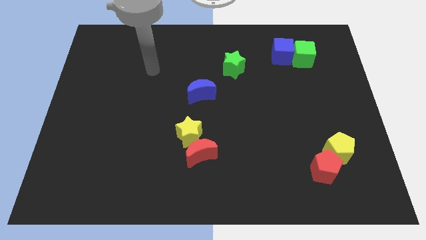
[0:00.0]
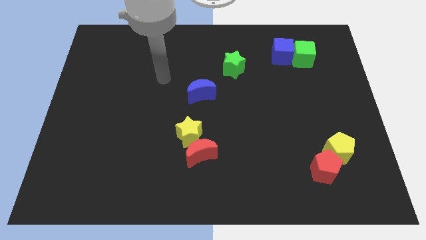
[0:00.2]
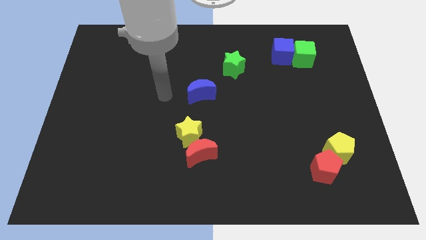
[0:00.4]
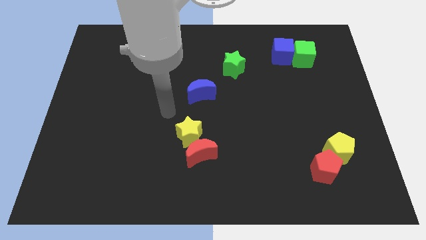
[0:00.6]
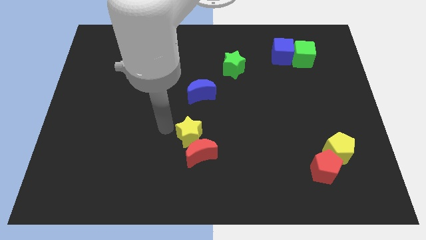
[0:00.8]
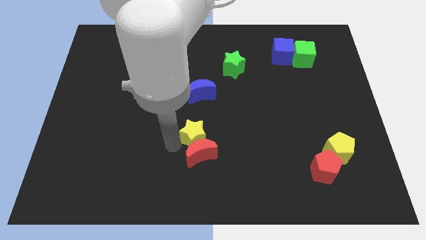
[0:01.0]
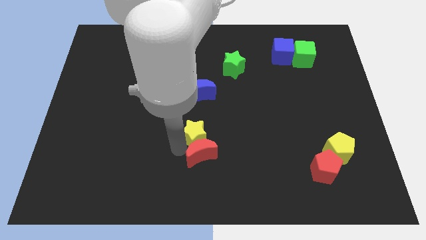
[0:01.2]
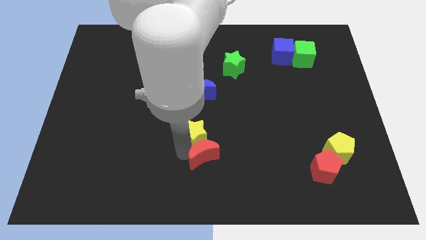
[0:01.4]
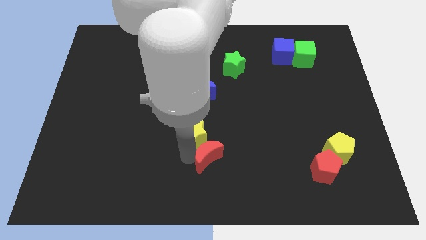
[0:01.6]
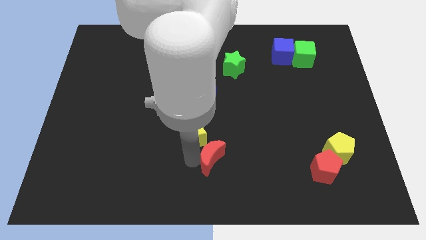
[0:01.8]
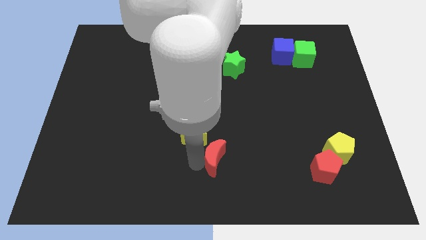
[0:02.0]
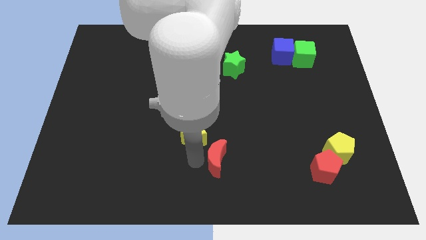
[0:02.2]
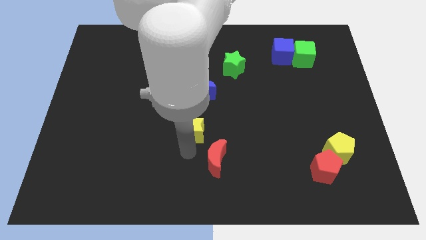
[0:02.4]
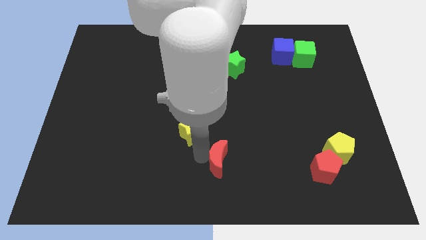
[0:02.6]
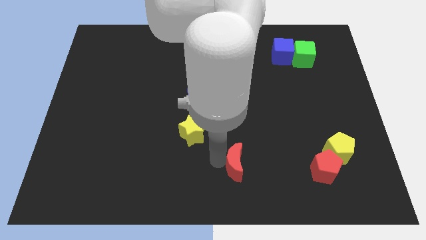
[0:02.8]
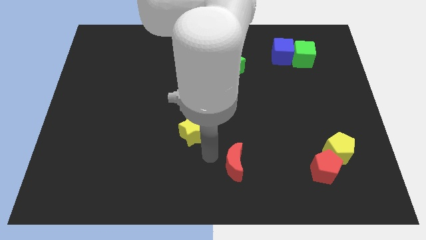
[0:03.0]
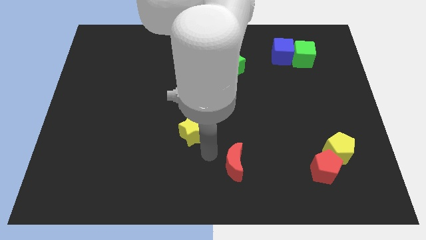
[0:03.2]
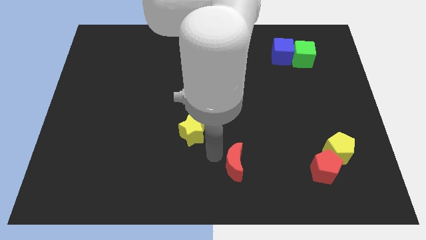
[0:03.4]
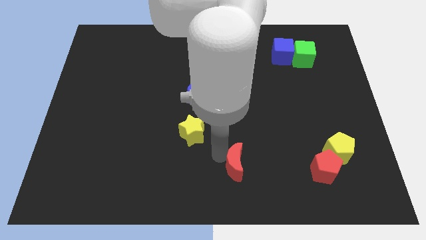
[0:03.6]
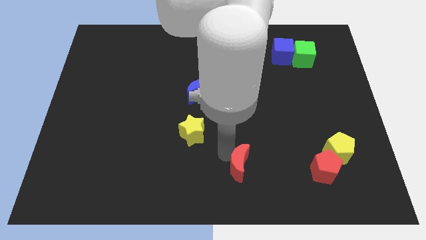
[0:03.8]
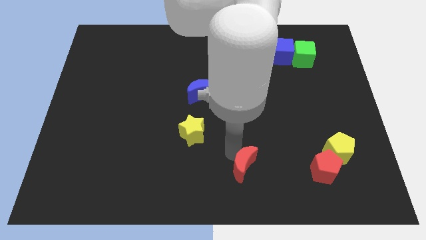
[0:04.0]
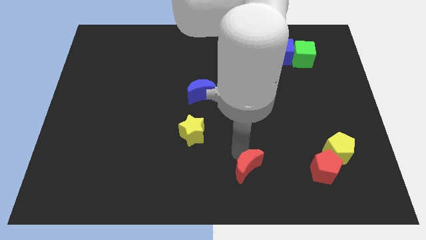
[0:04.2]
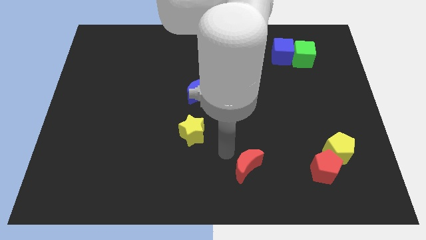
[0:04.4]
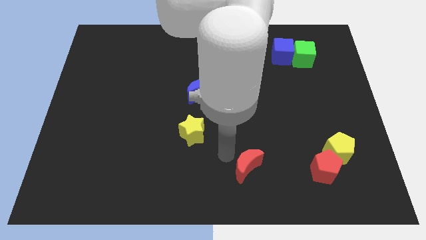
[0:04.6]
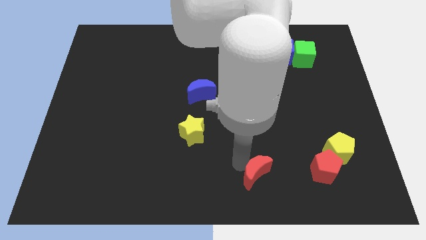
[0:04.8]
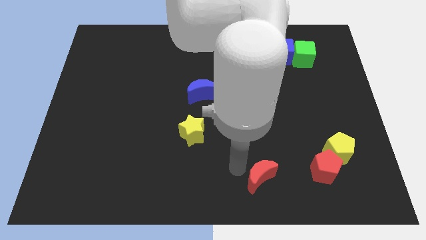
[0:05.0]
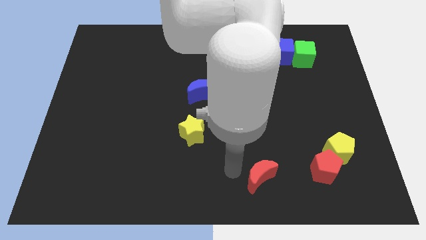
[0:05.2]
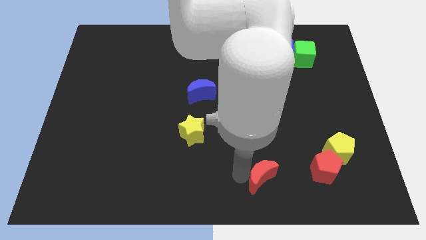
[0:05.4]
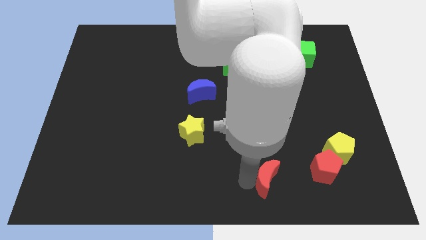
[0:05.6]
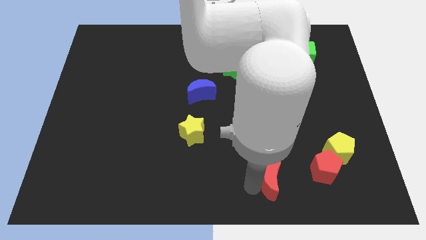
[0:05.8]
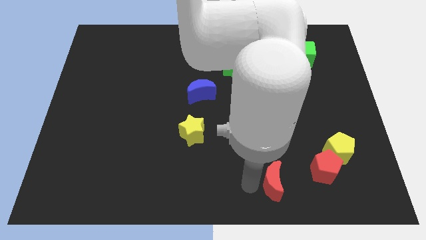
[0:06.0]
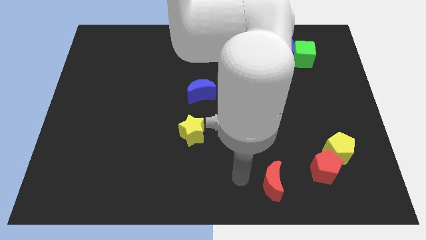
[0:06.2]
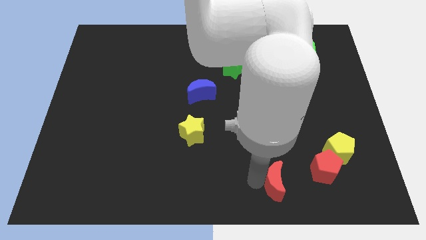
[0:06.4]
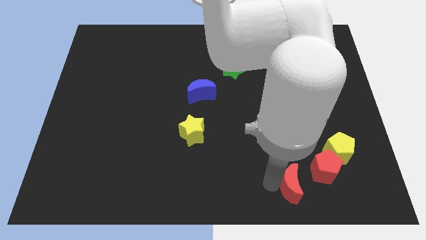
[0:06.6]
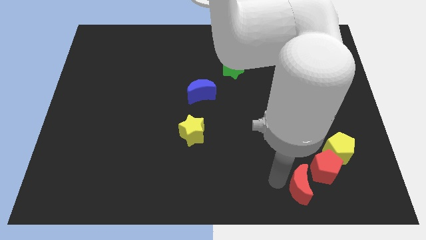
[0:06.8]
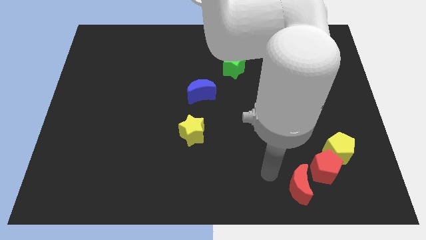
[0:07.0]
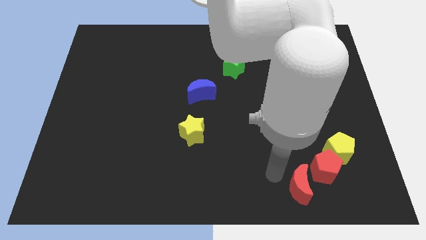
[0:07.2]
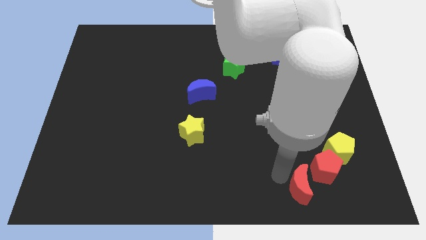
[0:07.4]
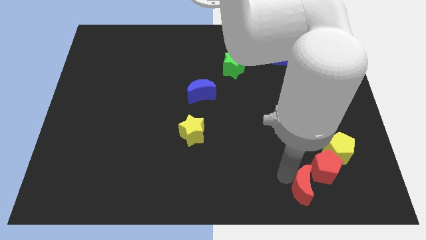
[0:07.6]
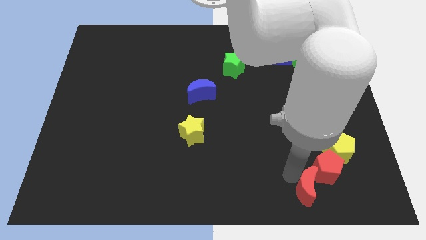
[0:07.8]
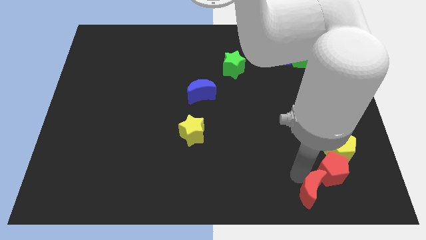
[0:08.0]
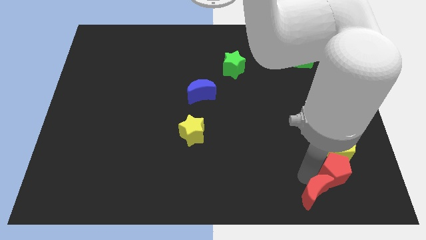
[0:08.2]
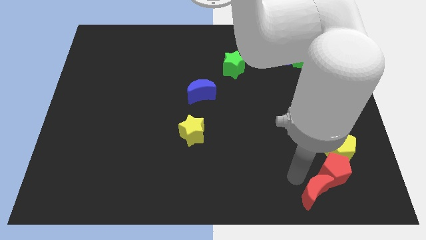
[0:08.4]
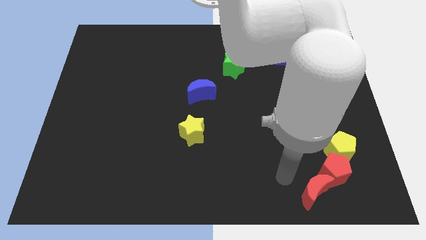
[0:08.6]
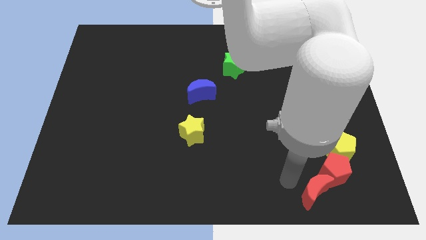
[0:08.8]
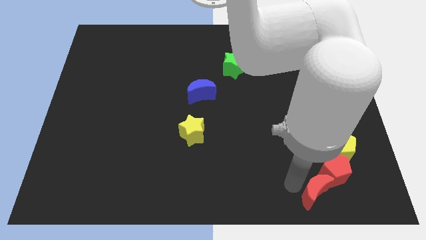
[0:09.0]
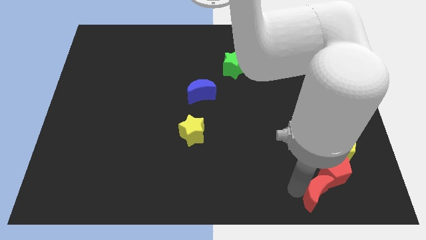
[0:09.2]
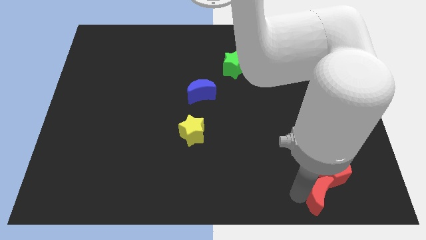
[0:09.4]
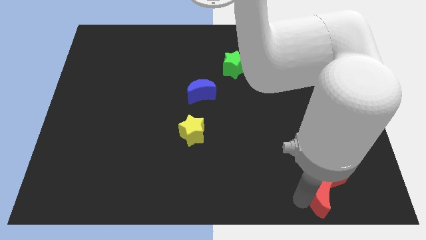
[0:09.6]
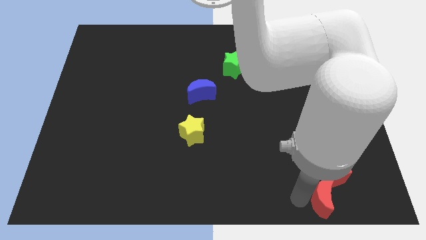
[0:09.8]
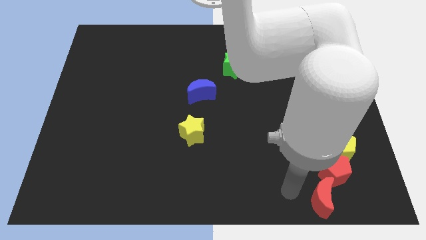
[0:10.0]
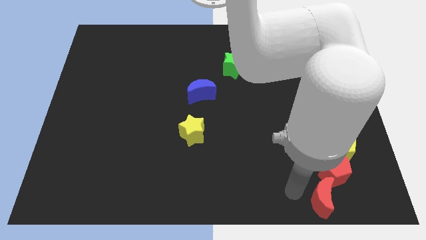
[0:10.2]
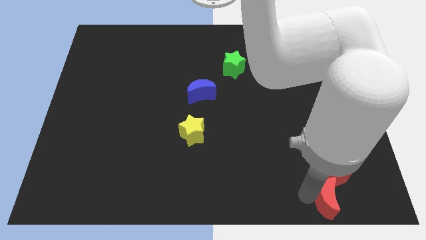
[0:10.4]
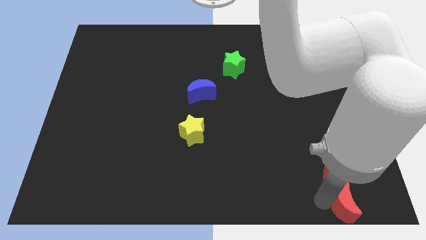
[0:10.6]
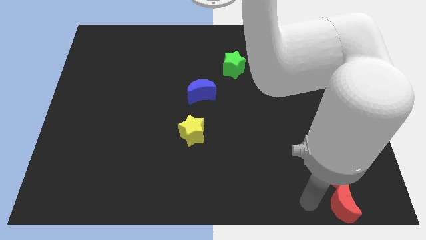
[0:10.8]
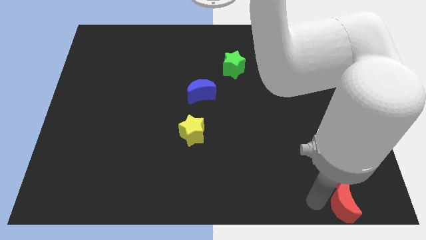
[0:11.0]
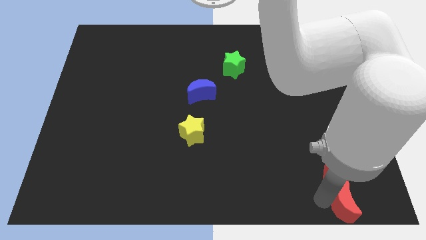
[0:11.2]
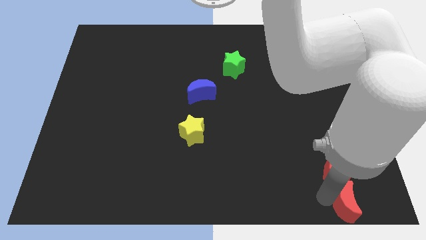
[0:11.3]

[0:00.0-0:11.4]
put the red moon to the bottom right of the board
